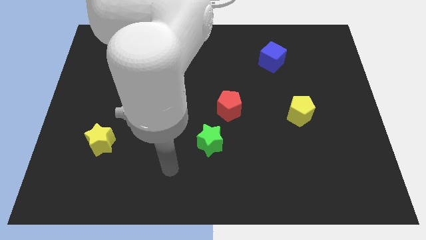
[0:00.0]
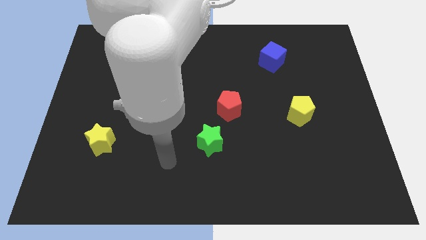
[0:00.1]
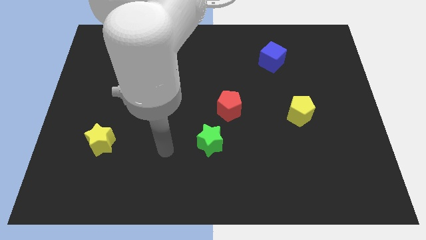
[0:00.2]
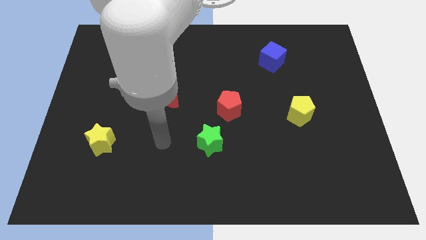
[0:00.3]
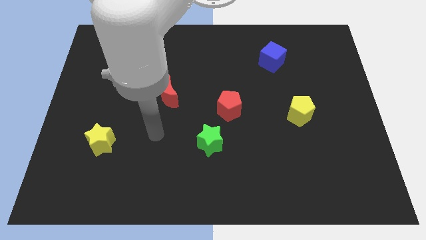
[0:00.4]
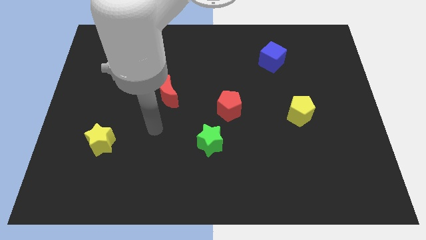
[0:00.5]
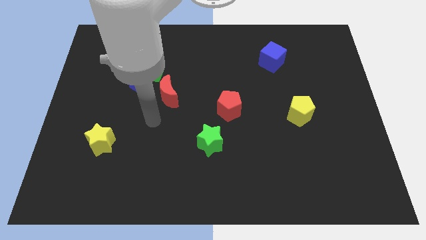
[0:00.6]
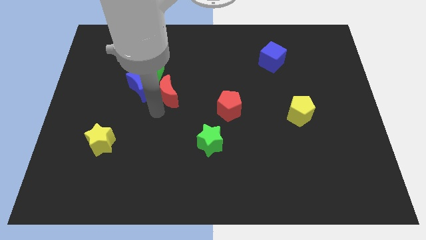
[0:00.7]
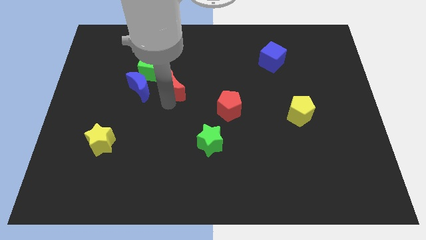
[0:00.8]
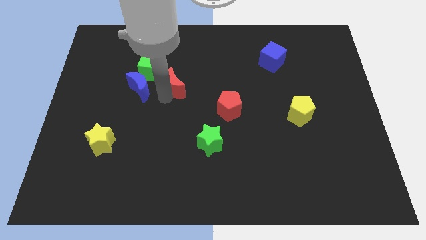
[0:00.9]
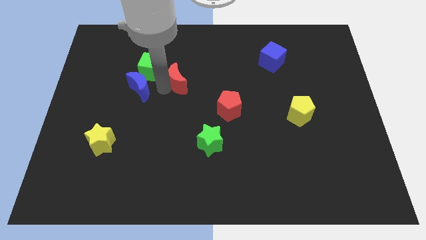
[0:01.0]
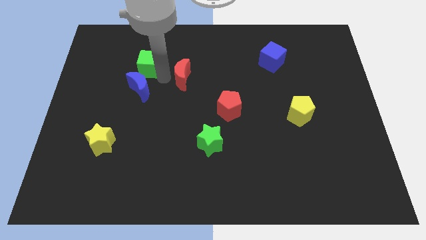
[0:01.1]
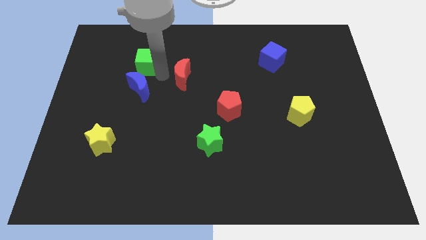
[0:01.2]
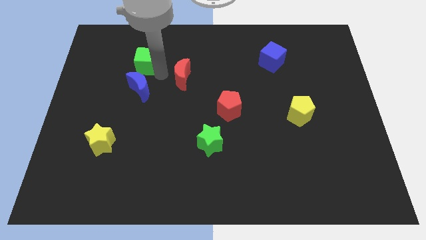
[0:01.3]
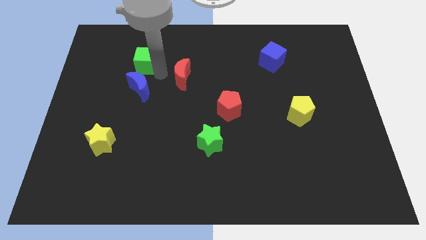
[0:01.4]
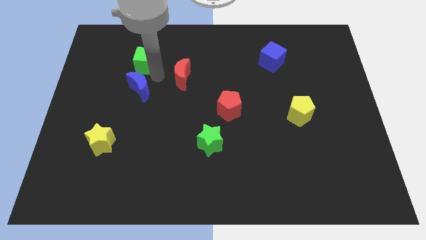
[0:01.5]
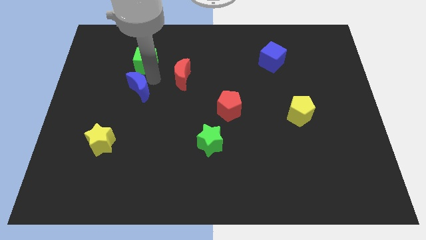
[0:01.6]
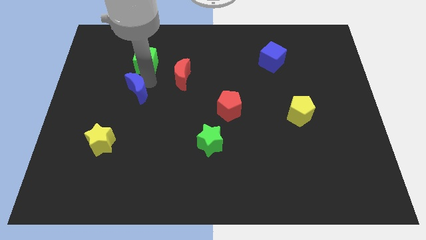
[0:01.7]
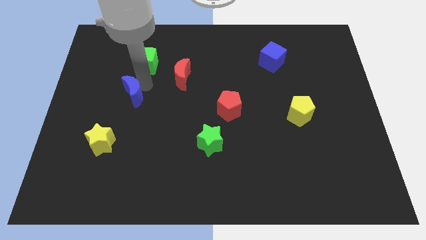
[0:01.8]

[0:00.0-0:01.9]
separate the blue moon from the green cube and red moon

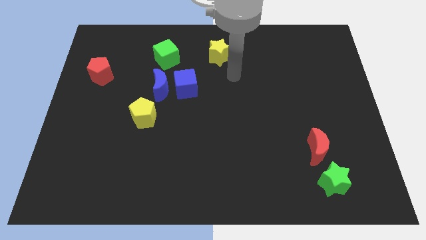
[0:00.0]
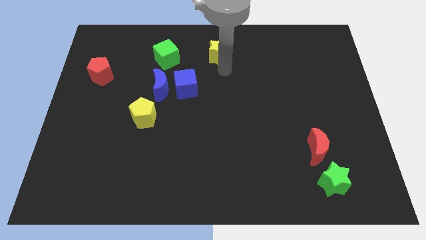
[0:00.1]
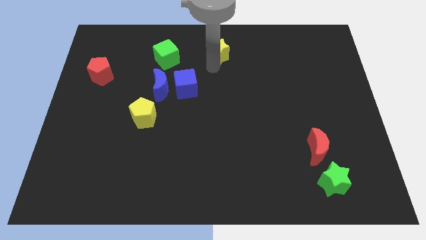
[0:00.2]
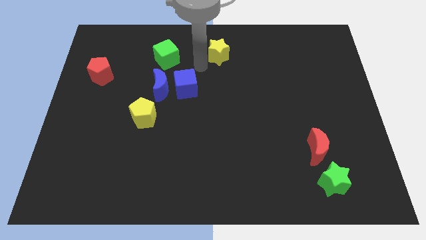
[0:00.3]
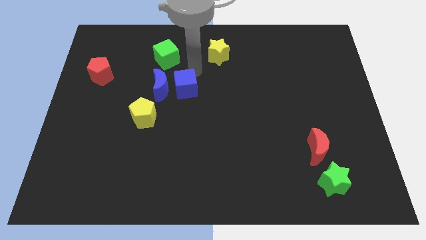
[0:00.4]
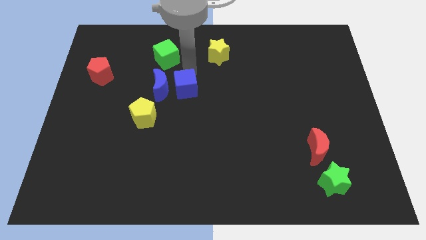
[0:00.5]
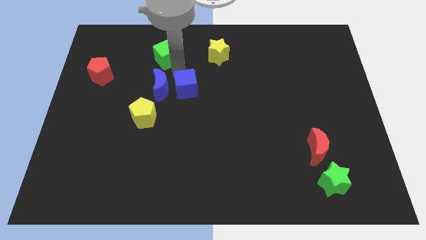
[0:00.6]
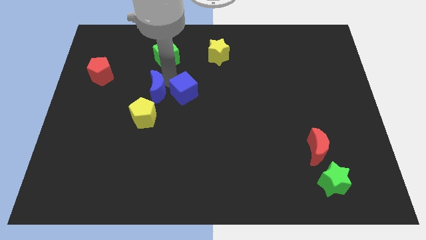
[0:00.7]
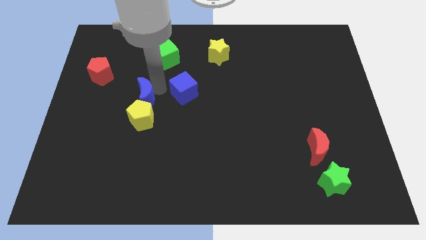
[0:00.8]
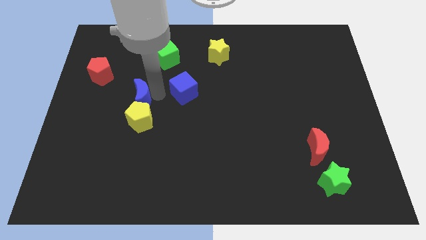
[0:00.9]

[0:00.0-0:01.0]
pull the blue cube apart from the blue moon

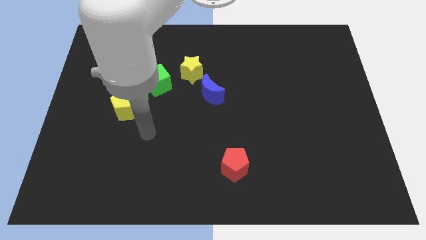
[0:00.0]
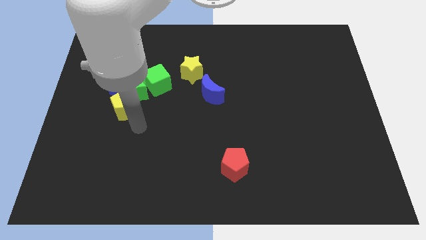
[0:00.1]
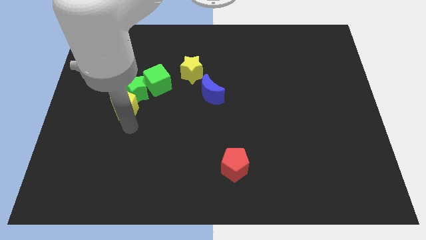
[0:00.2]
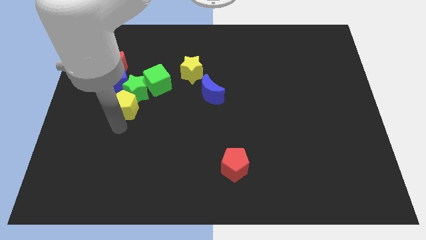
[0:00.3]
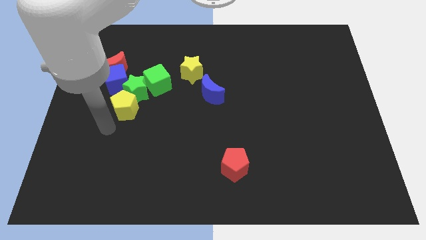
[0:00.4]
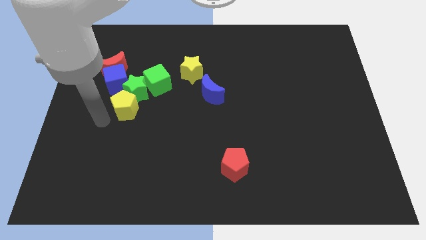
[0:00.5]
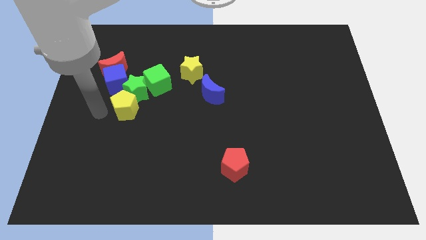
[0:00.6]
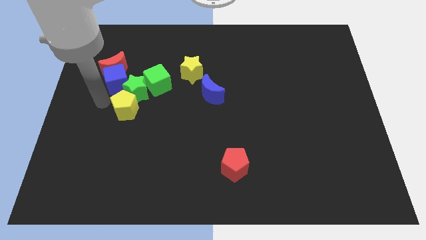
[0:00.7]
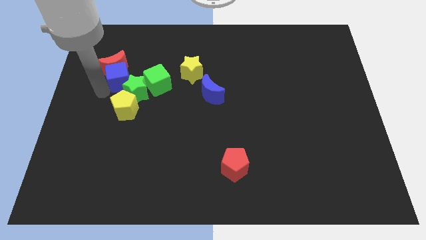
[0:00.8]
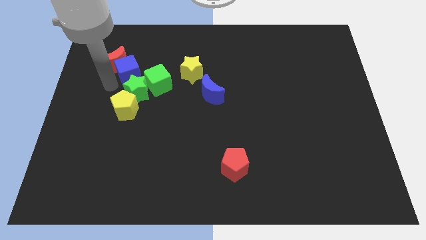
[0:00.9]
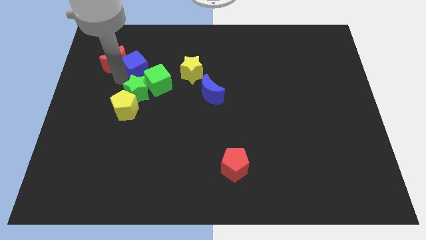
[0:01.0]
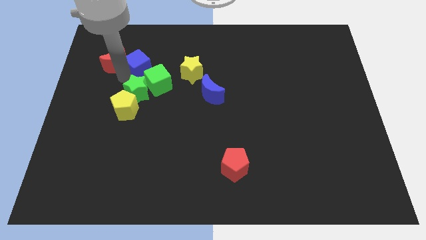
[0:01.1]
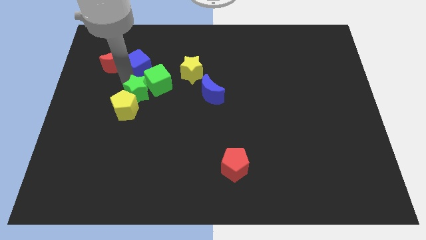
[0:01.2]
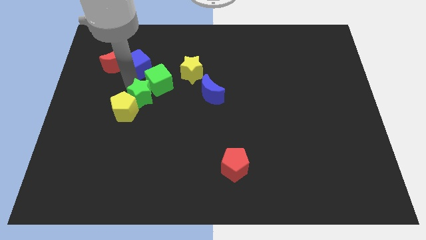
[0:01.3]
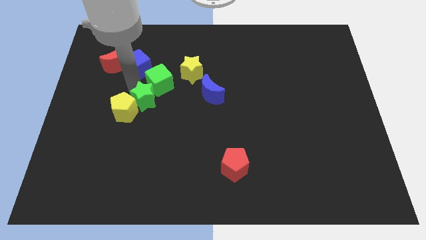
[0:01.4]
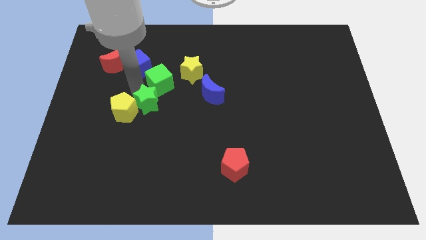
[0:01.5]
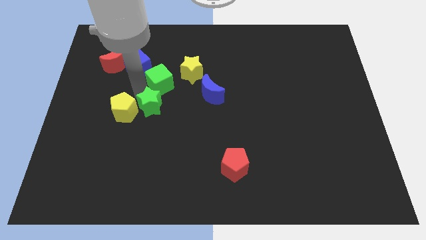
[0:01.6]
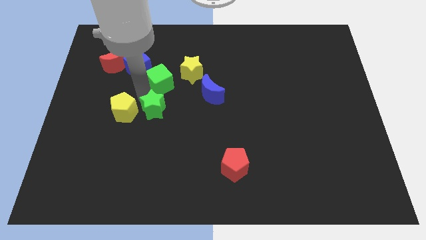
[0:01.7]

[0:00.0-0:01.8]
move the green star away from the clump

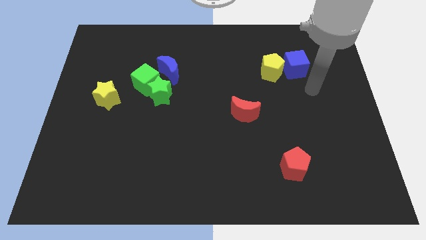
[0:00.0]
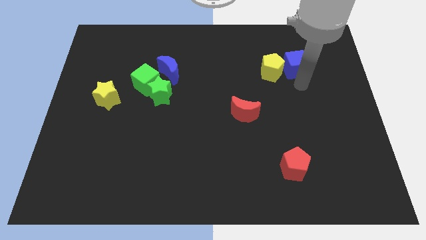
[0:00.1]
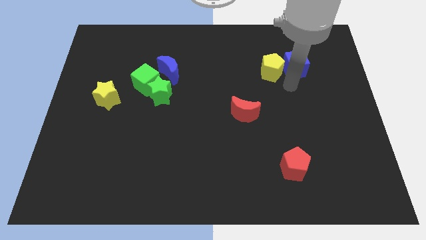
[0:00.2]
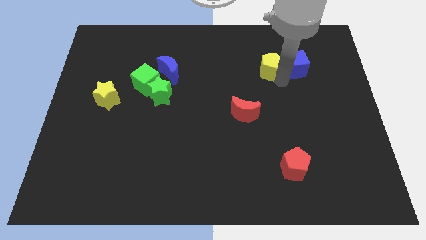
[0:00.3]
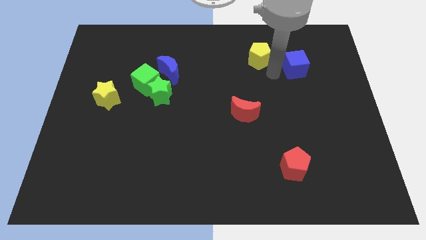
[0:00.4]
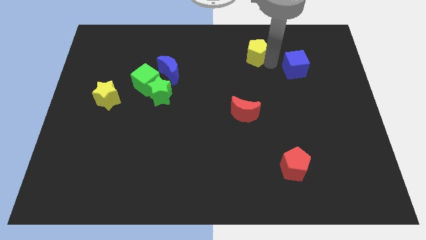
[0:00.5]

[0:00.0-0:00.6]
move the blue cube away from the yellow pentagon

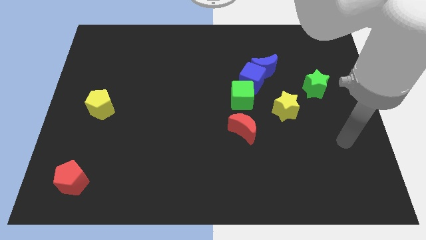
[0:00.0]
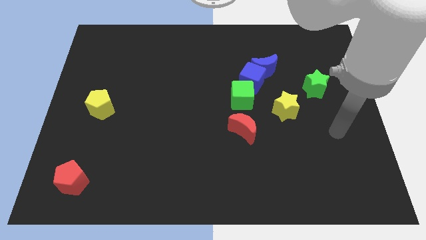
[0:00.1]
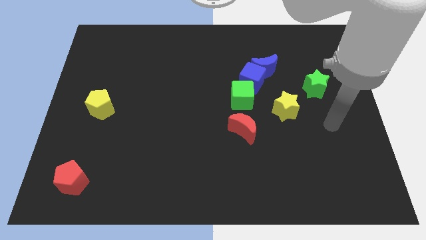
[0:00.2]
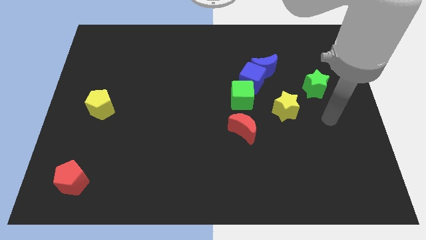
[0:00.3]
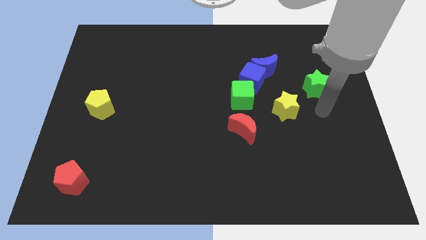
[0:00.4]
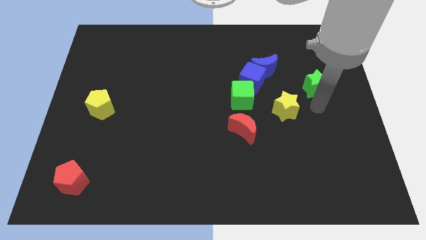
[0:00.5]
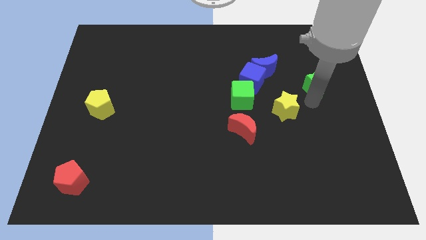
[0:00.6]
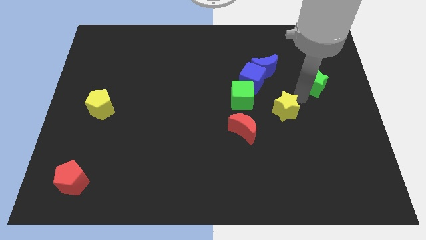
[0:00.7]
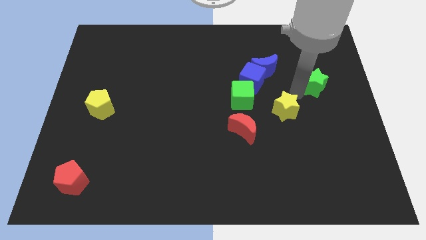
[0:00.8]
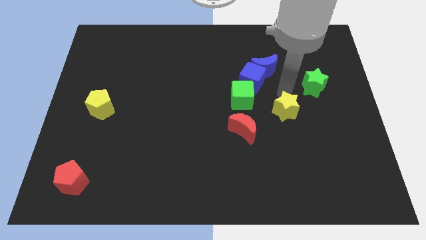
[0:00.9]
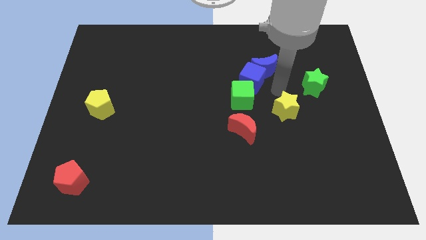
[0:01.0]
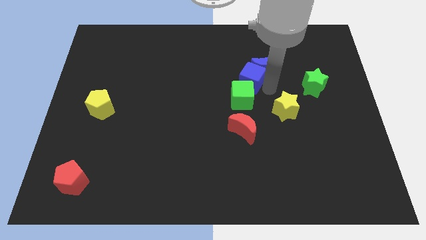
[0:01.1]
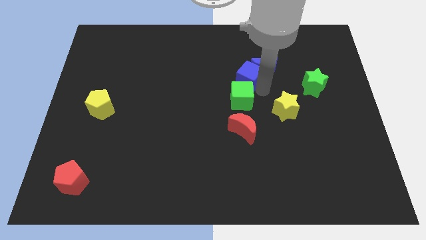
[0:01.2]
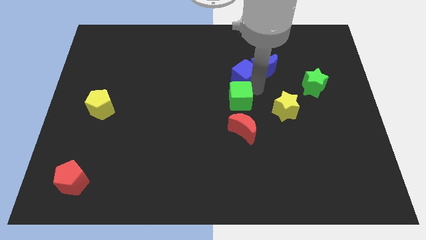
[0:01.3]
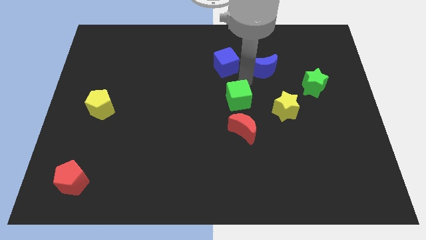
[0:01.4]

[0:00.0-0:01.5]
pull the blue moon apart from the blue cube

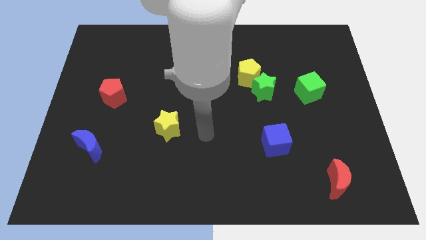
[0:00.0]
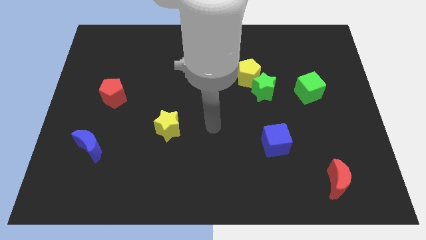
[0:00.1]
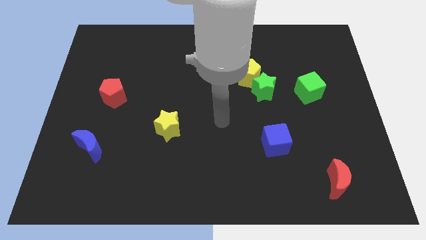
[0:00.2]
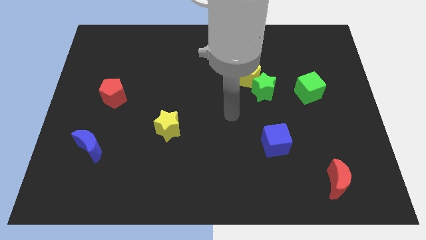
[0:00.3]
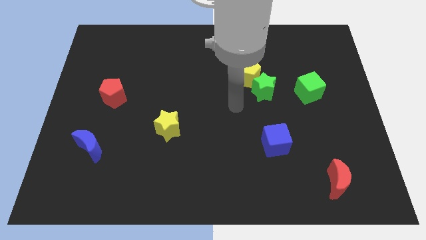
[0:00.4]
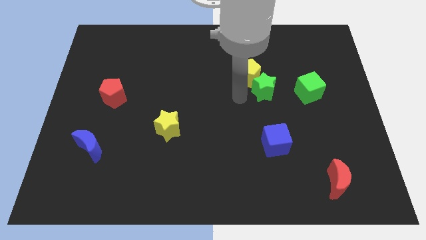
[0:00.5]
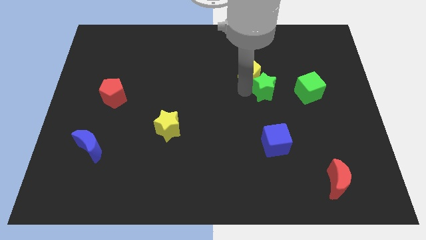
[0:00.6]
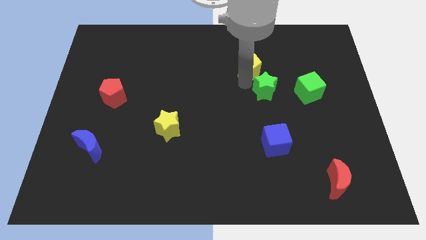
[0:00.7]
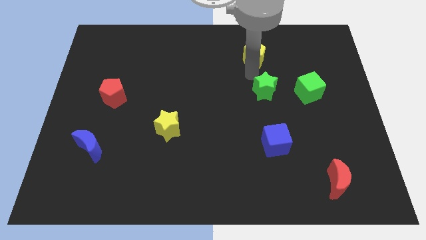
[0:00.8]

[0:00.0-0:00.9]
separate the green star from the yellow pentagon

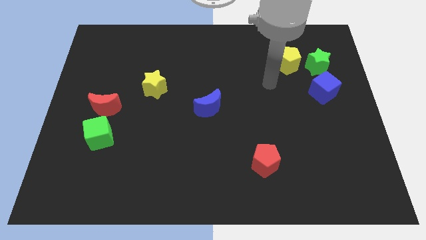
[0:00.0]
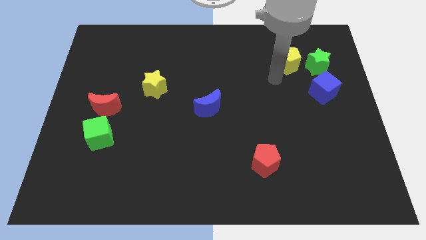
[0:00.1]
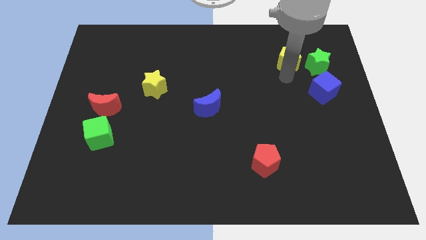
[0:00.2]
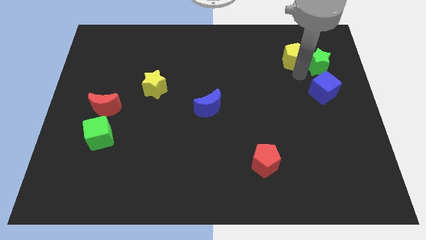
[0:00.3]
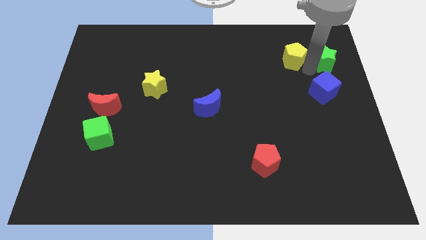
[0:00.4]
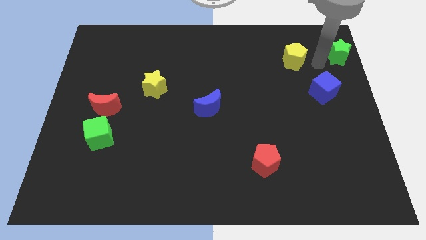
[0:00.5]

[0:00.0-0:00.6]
separate the yellow pentagon from the green star

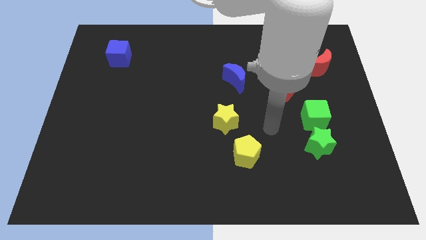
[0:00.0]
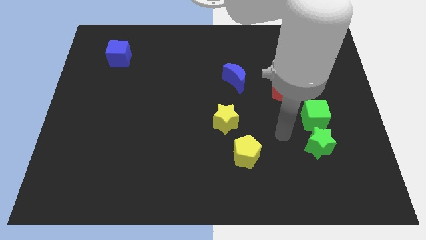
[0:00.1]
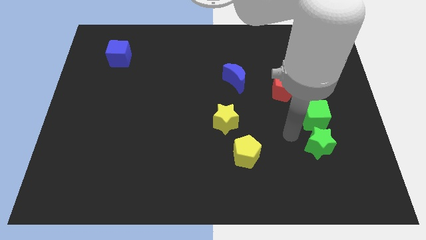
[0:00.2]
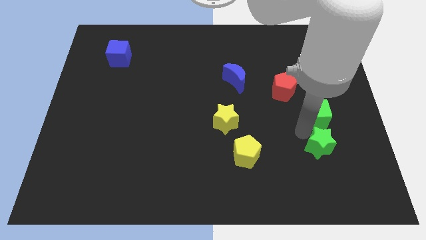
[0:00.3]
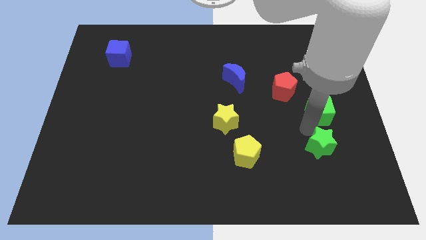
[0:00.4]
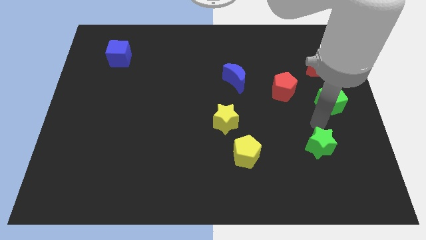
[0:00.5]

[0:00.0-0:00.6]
pull the green star apart from the green cube

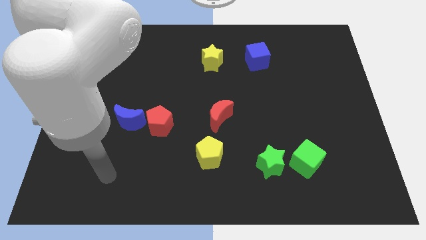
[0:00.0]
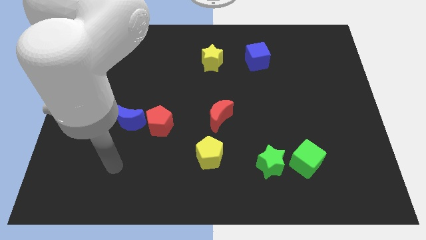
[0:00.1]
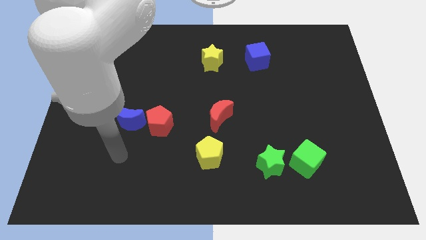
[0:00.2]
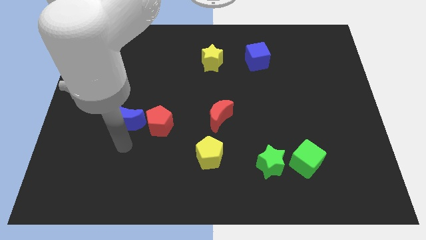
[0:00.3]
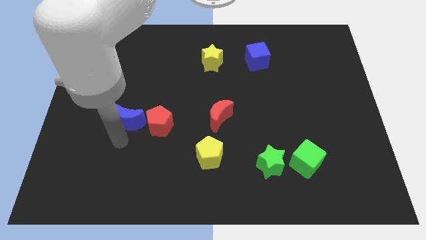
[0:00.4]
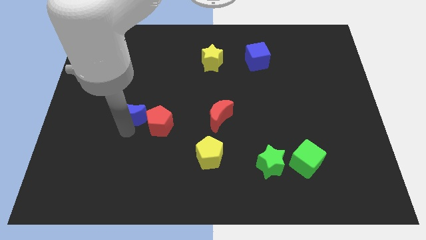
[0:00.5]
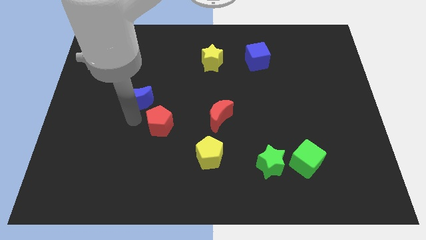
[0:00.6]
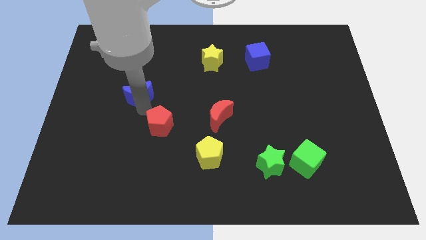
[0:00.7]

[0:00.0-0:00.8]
move the red pentagon away from the blue moon
